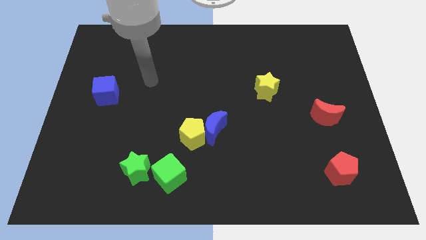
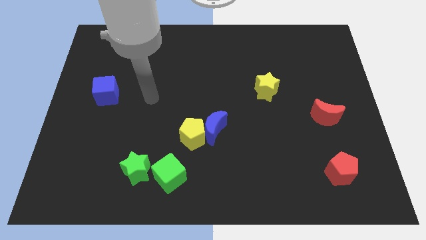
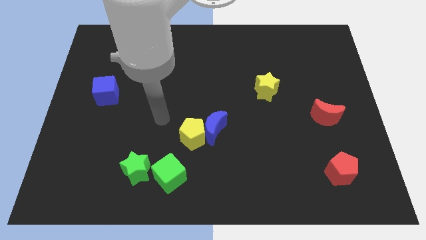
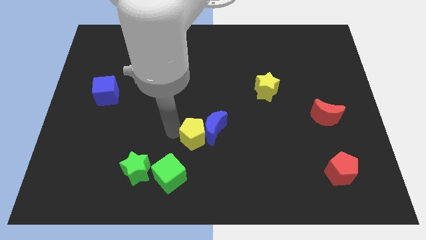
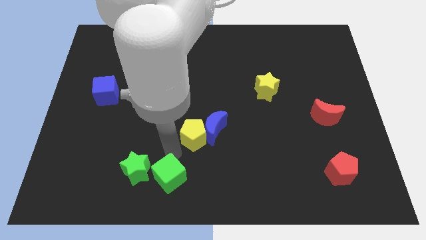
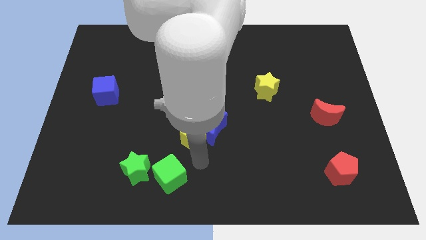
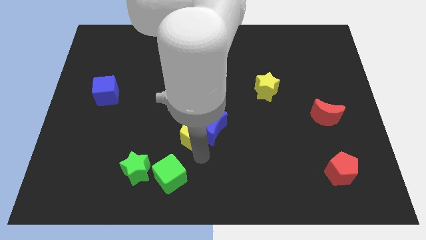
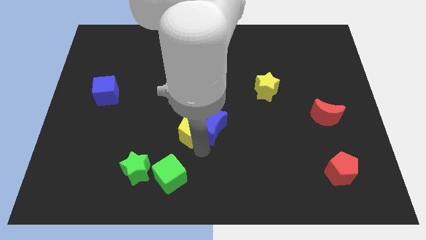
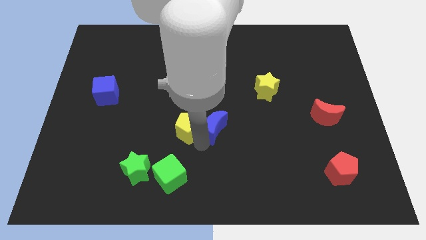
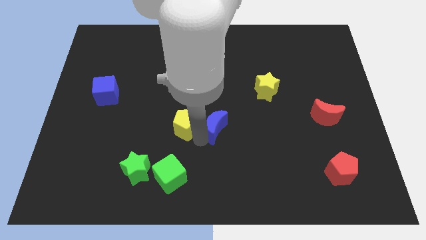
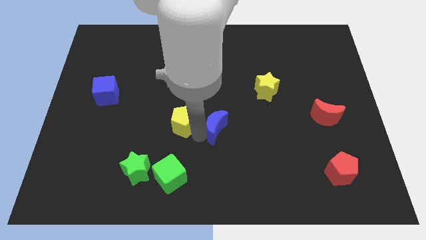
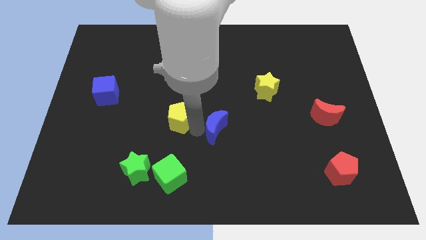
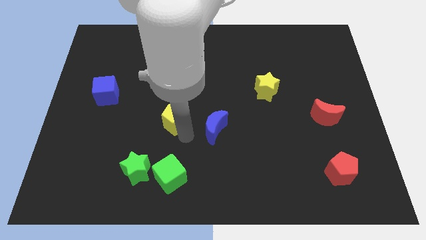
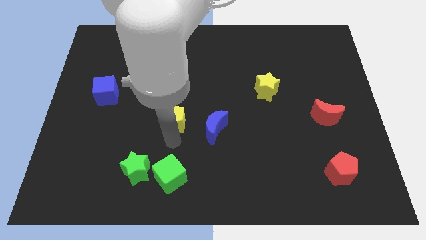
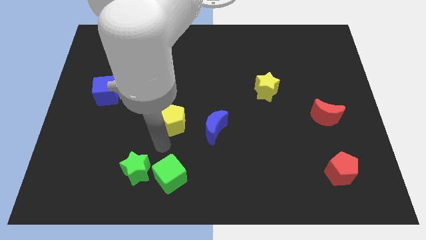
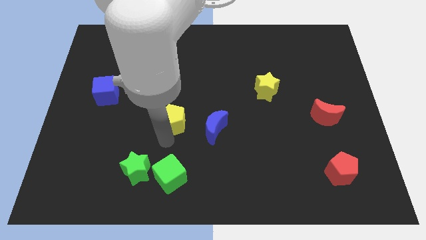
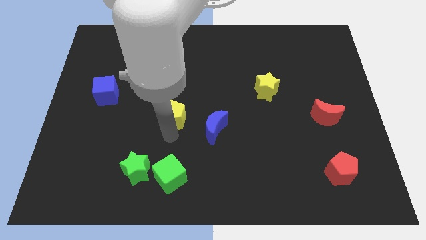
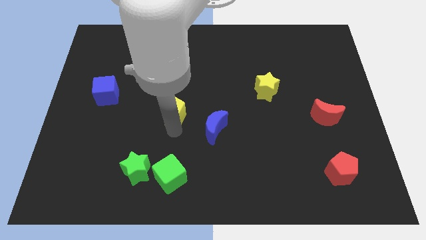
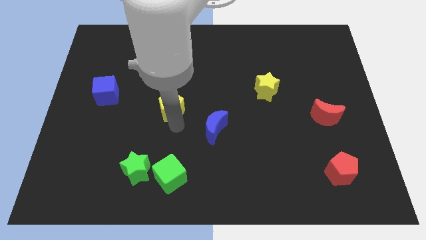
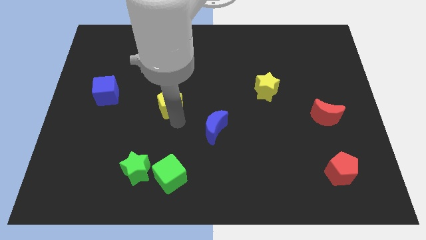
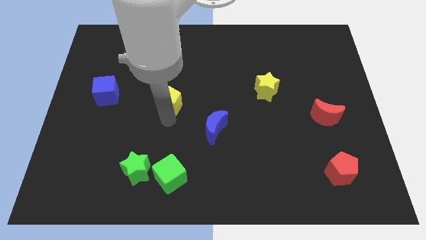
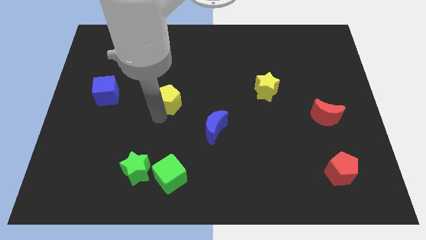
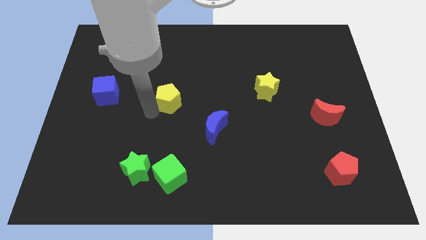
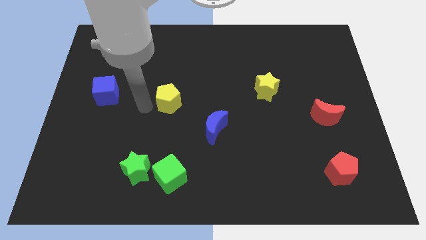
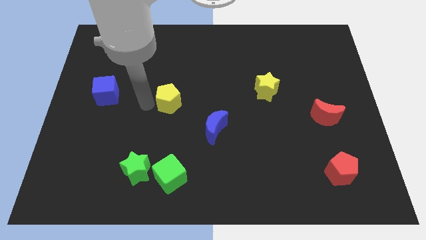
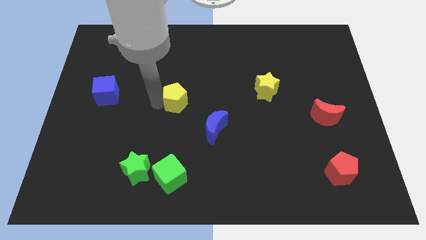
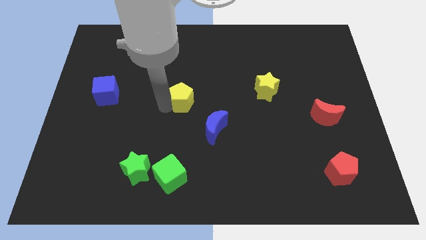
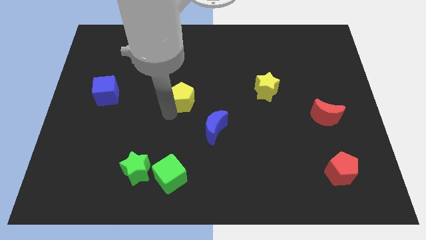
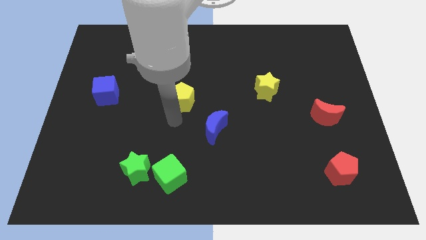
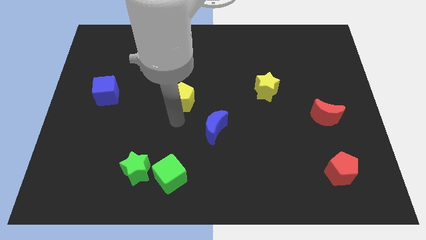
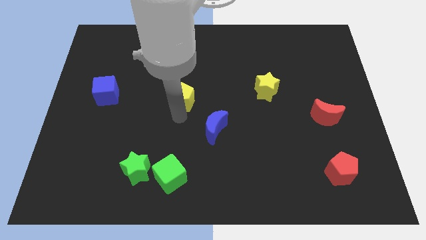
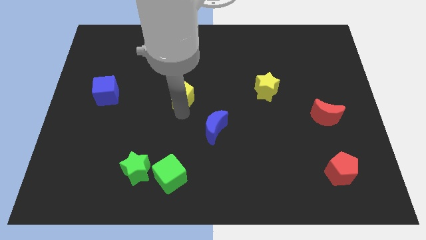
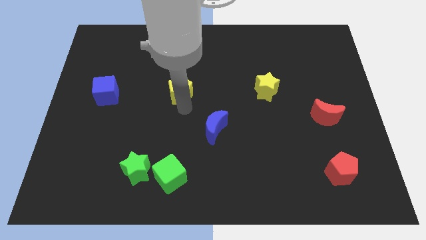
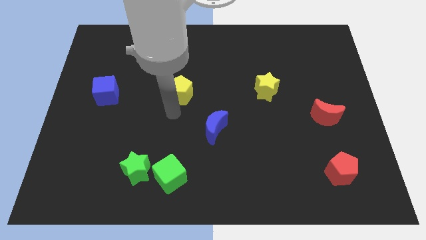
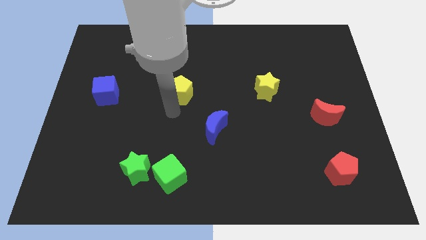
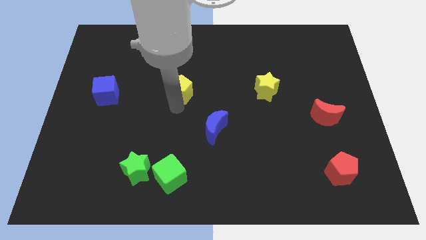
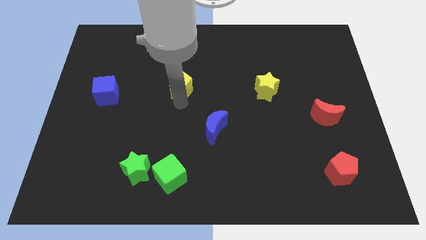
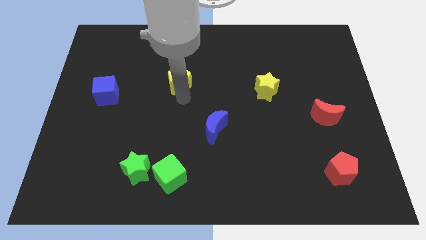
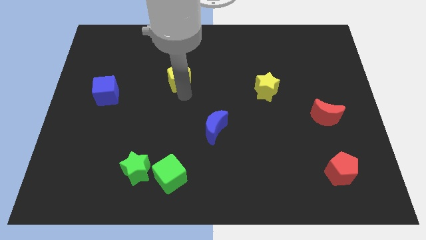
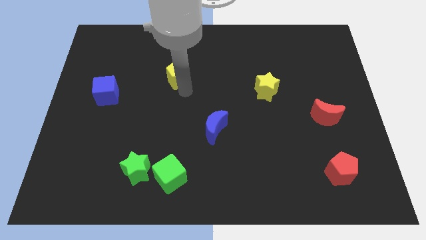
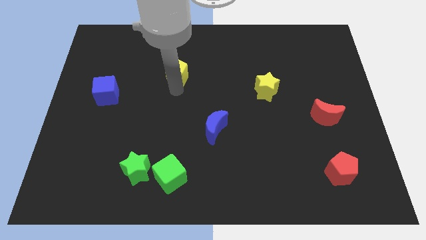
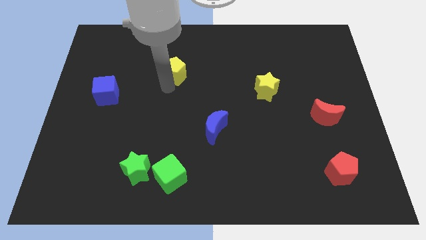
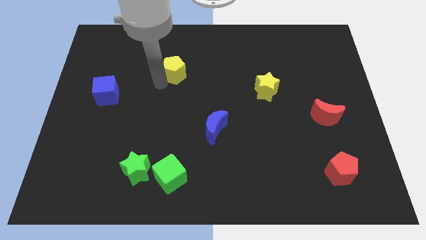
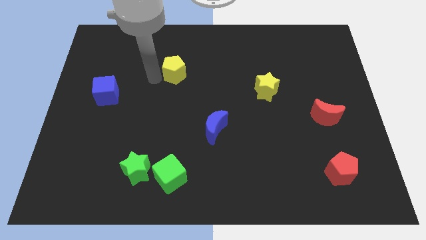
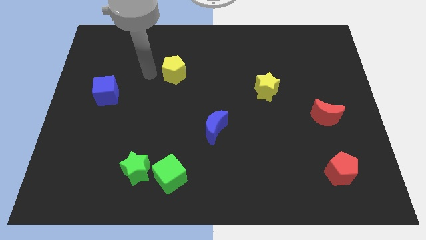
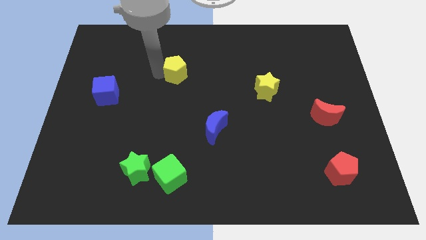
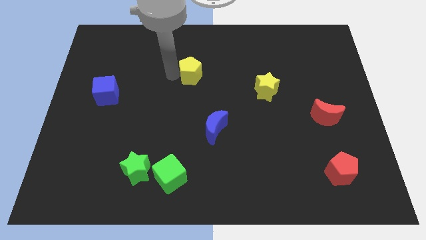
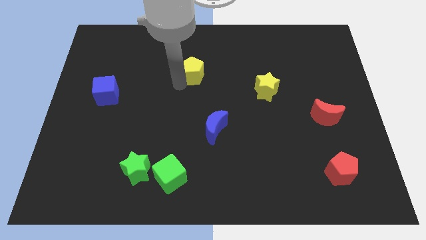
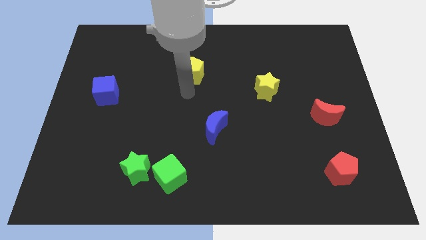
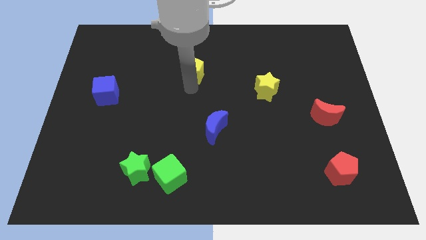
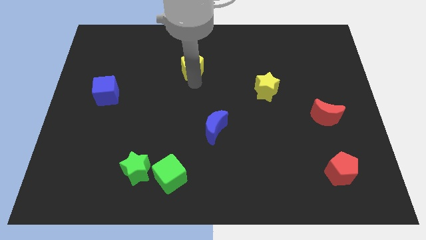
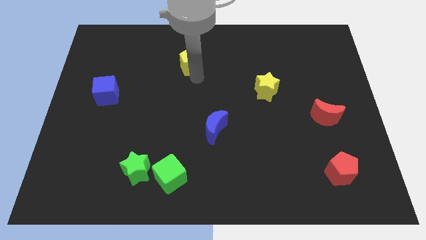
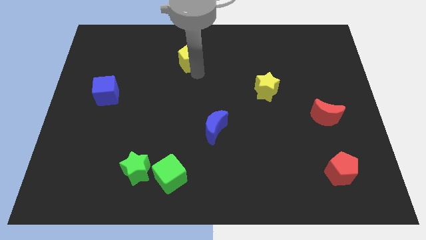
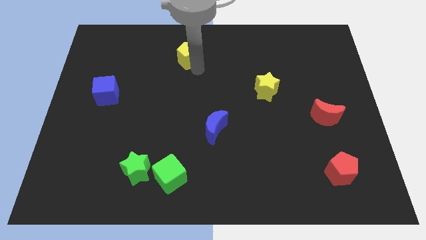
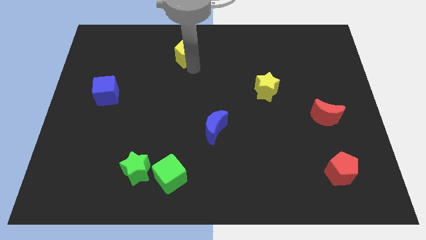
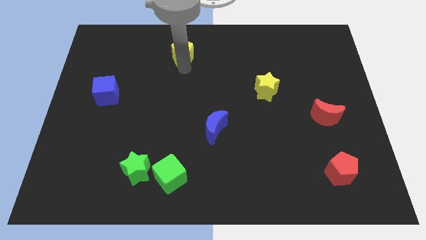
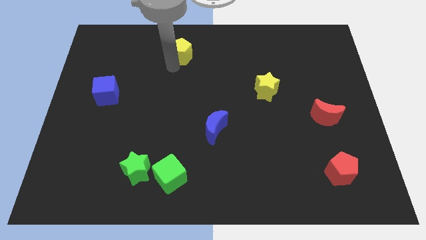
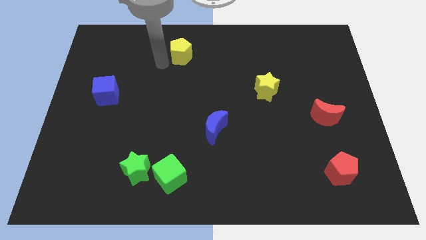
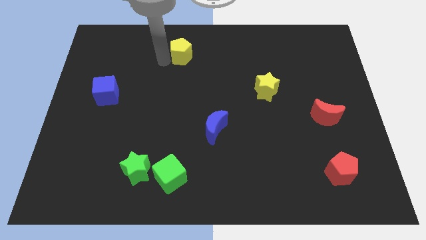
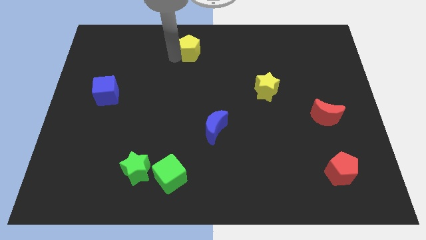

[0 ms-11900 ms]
push the yellow pentagon to the top side
